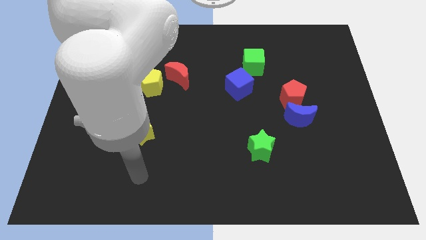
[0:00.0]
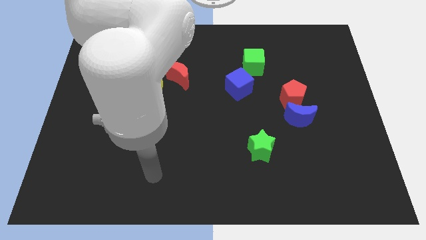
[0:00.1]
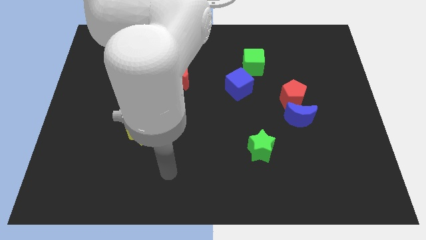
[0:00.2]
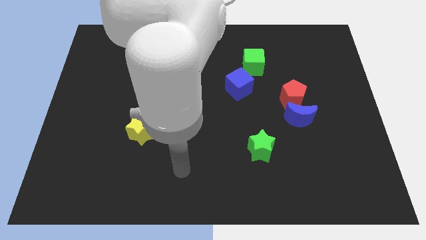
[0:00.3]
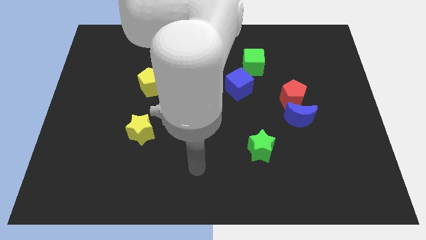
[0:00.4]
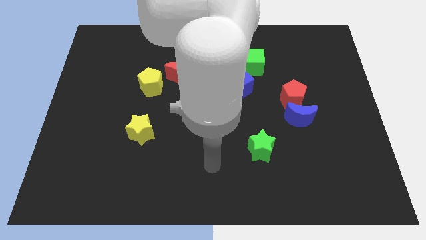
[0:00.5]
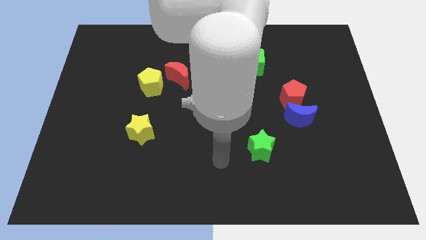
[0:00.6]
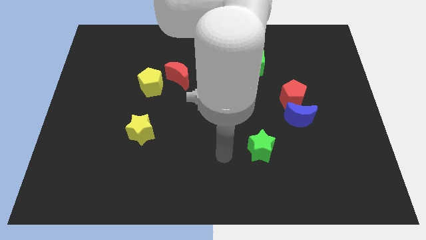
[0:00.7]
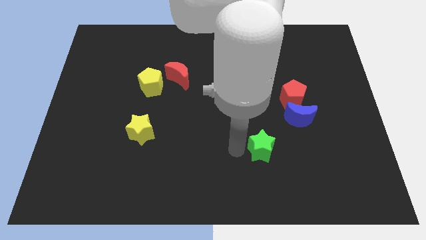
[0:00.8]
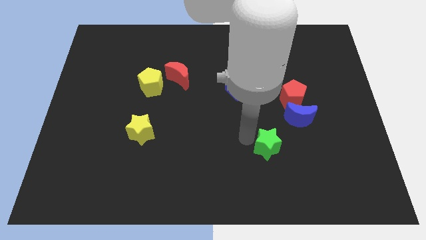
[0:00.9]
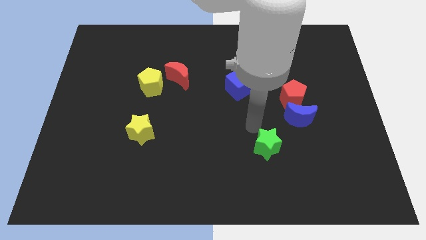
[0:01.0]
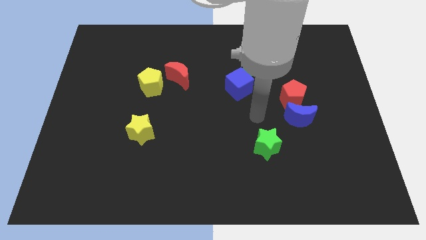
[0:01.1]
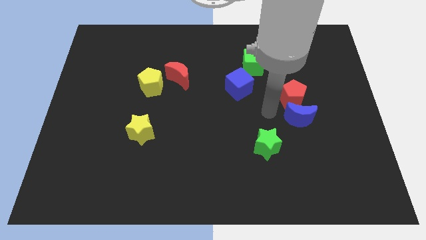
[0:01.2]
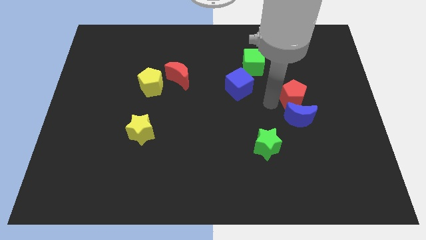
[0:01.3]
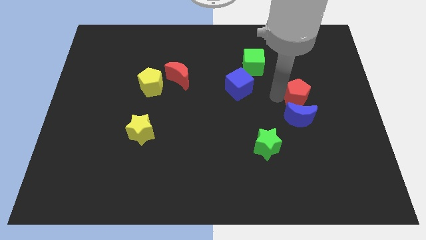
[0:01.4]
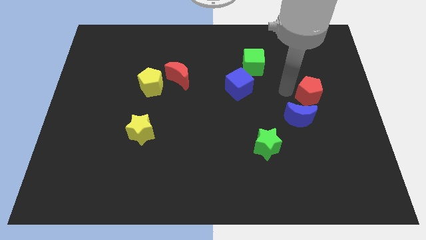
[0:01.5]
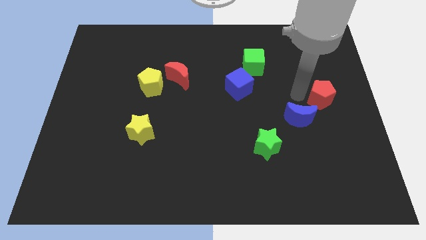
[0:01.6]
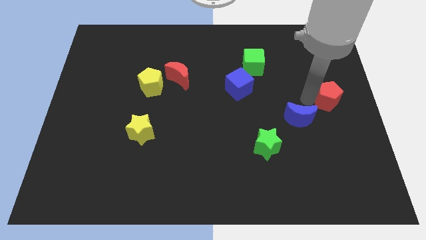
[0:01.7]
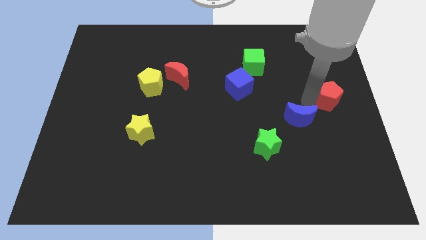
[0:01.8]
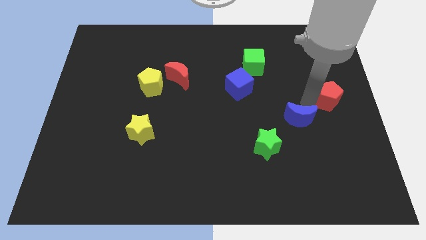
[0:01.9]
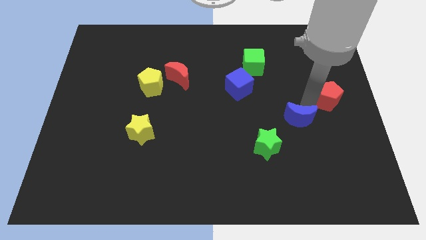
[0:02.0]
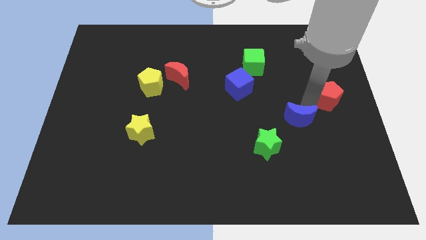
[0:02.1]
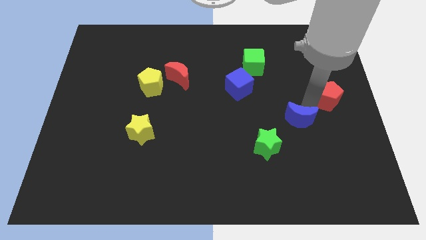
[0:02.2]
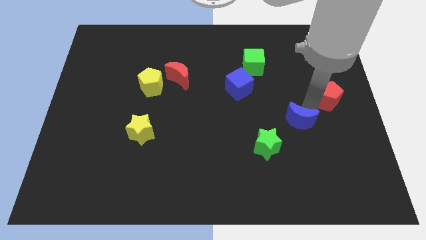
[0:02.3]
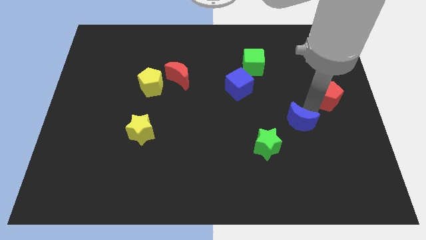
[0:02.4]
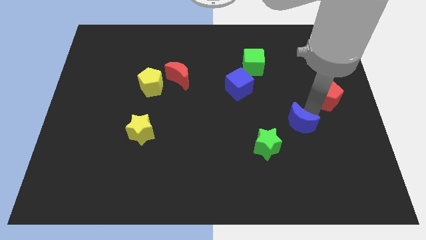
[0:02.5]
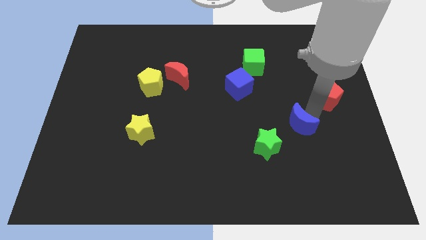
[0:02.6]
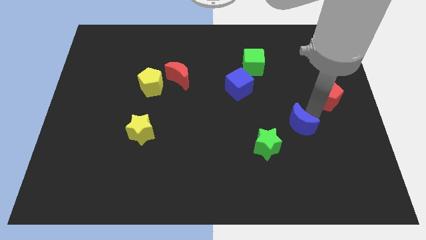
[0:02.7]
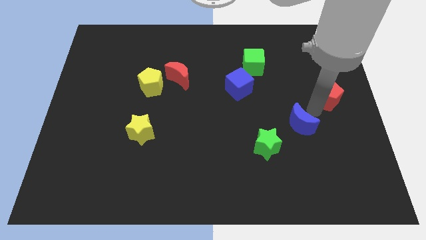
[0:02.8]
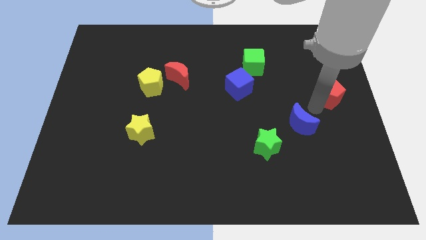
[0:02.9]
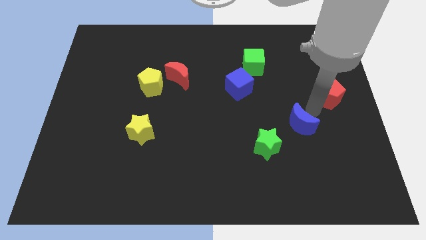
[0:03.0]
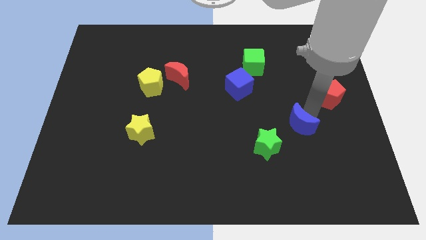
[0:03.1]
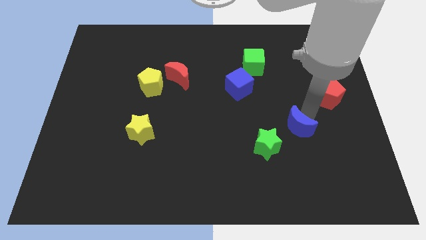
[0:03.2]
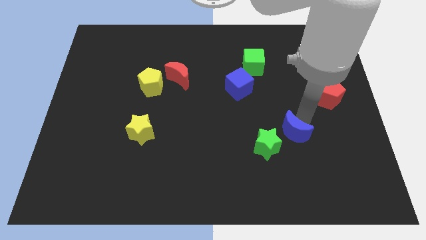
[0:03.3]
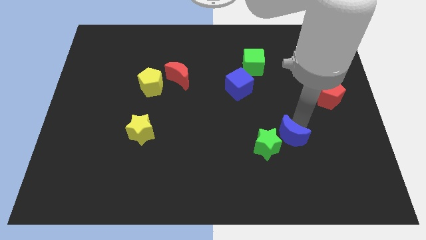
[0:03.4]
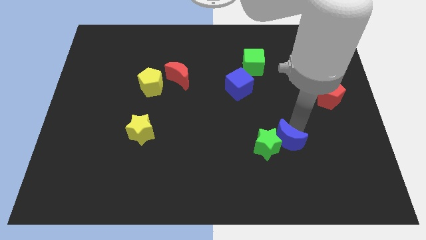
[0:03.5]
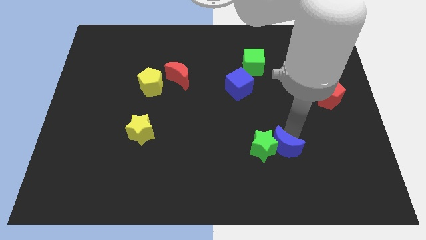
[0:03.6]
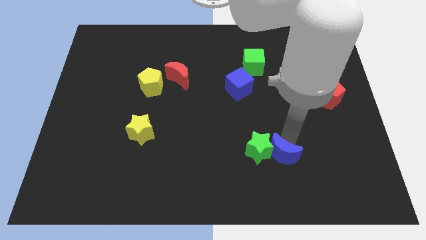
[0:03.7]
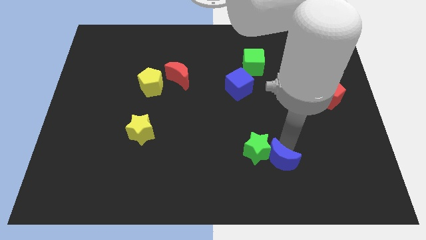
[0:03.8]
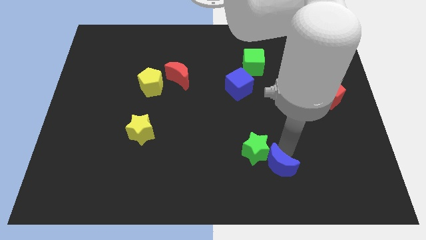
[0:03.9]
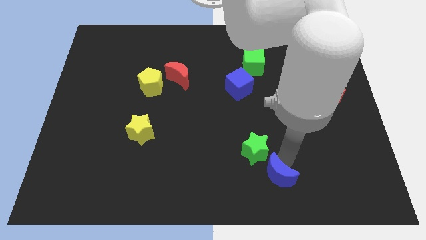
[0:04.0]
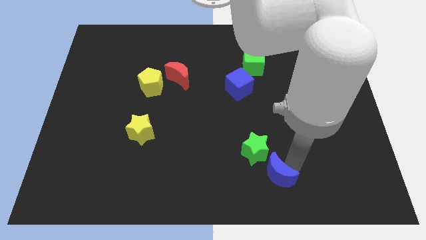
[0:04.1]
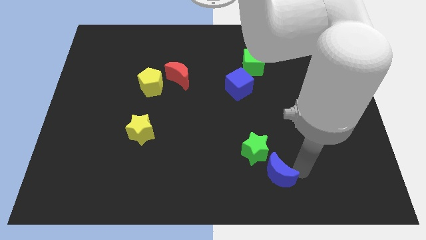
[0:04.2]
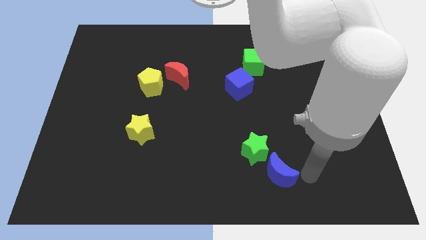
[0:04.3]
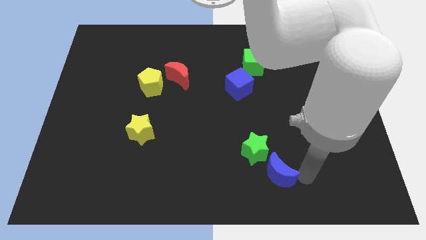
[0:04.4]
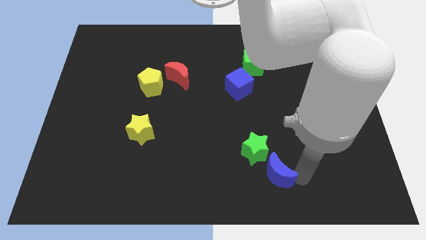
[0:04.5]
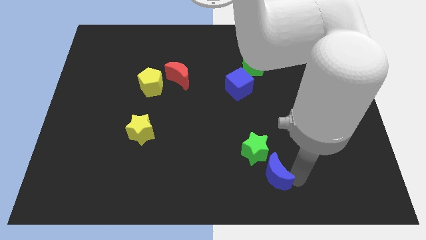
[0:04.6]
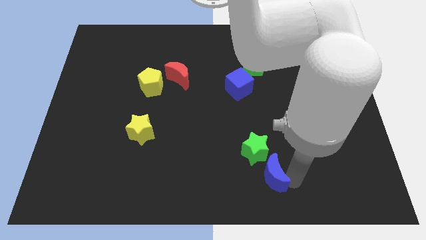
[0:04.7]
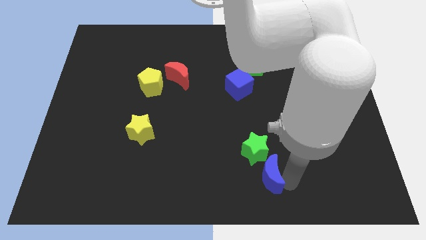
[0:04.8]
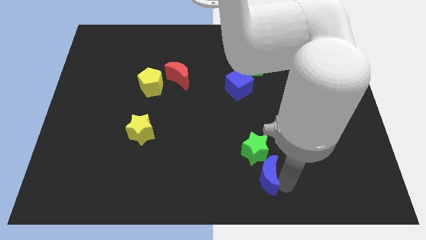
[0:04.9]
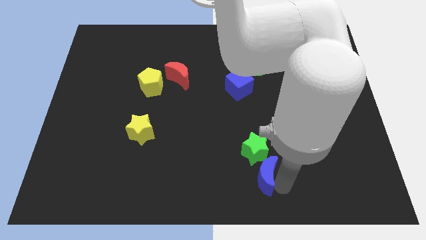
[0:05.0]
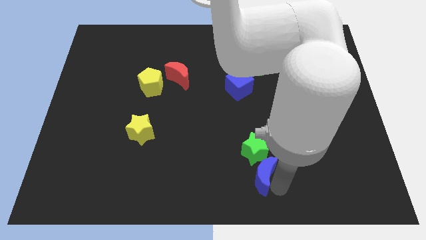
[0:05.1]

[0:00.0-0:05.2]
slide the blue moon to the bottom left side of the green star

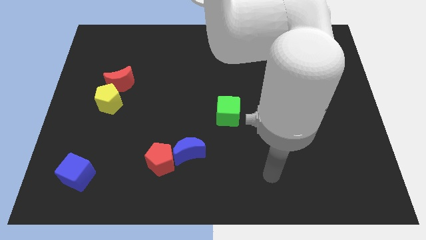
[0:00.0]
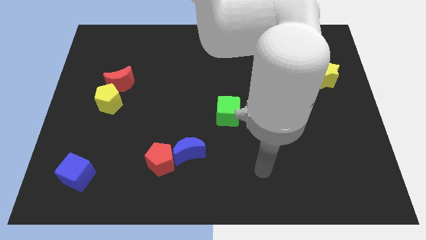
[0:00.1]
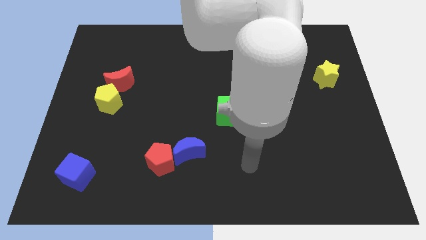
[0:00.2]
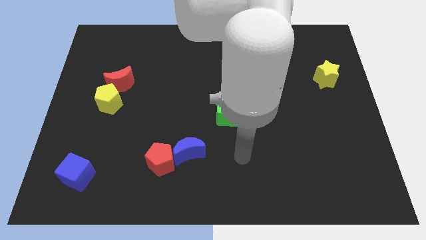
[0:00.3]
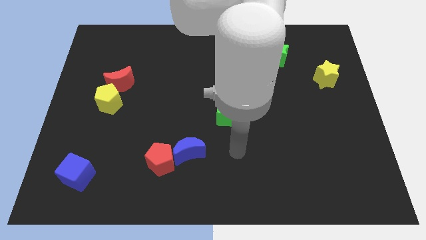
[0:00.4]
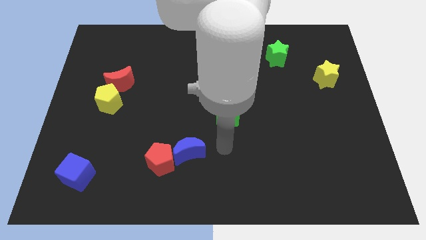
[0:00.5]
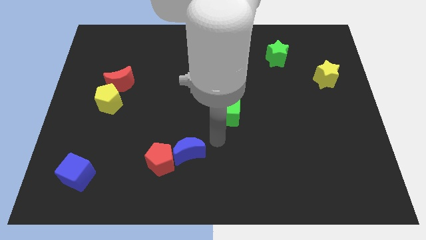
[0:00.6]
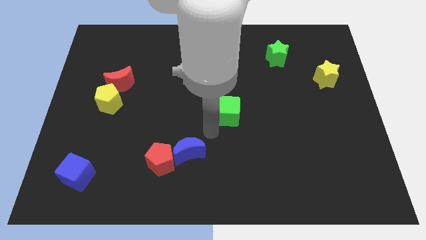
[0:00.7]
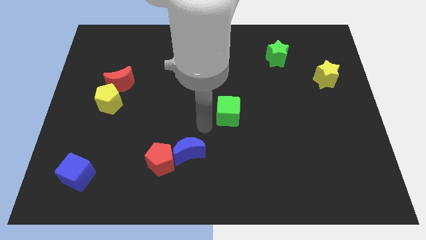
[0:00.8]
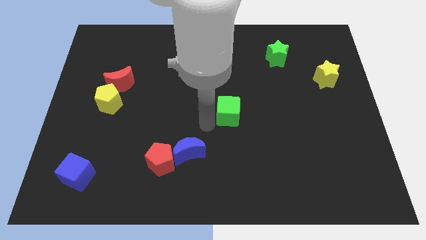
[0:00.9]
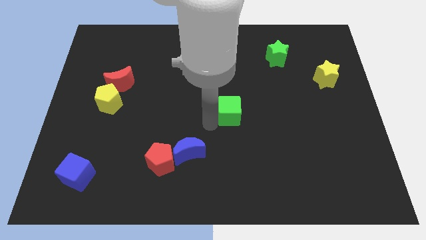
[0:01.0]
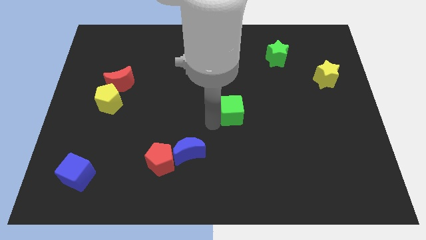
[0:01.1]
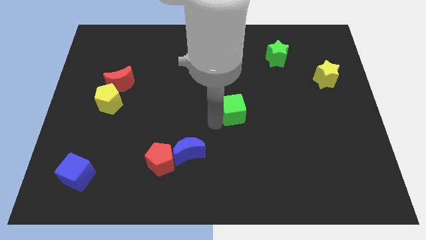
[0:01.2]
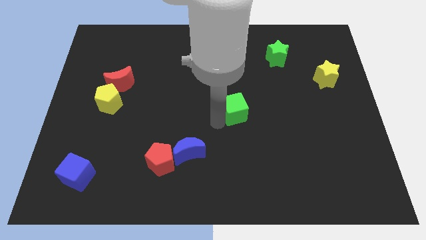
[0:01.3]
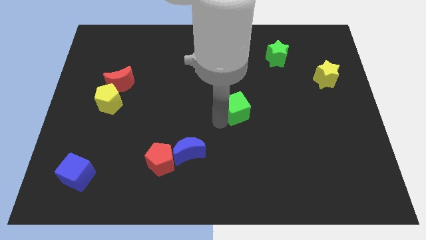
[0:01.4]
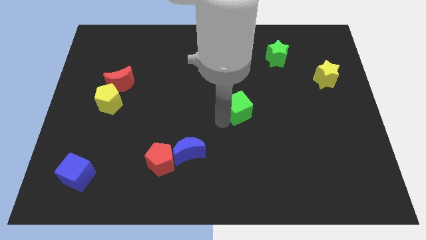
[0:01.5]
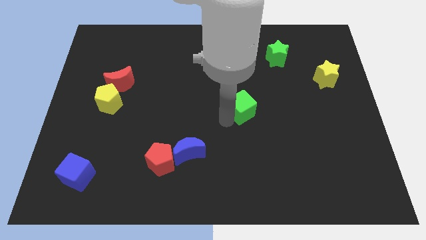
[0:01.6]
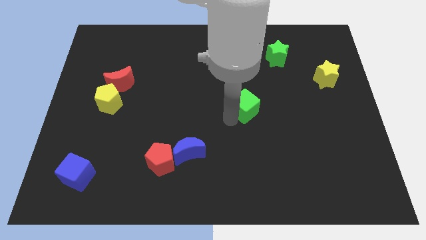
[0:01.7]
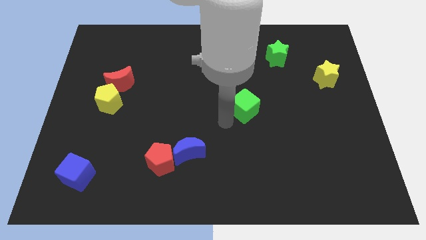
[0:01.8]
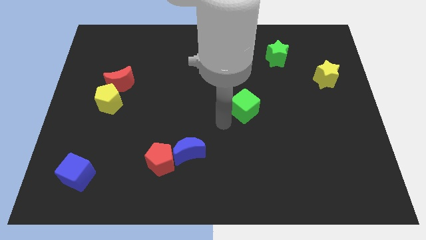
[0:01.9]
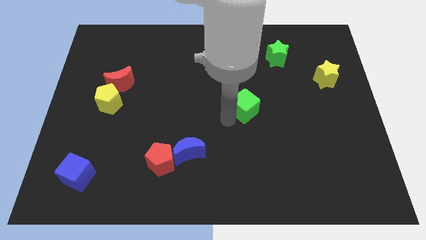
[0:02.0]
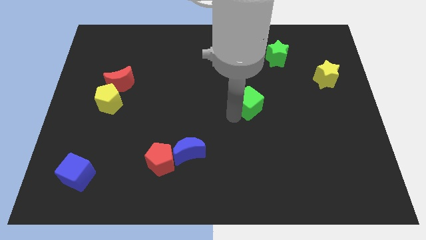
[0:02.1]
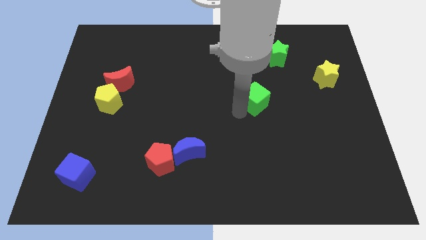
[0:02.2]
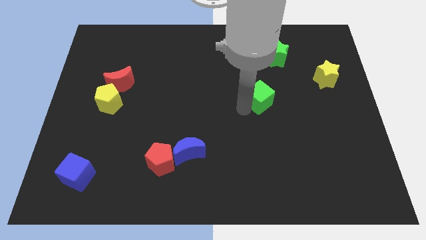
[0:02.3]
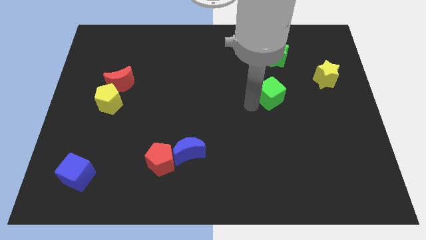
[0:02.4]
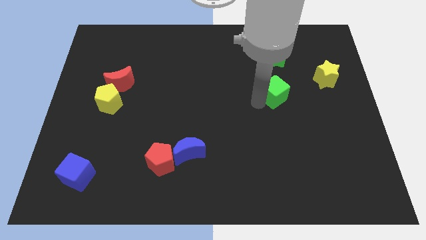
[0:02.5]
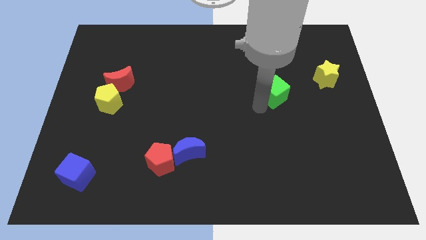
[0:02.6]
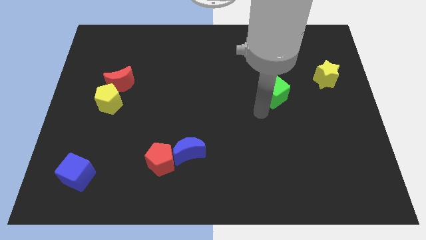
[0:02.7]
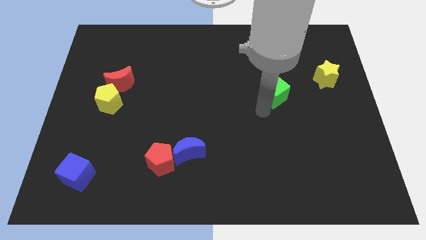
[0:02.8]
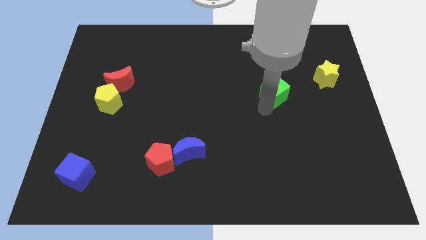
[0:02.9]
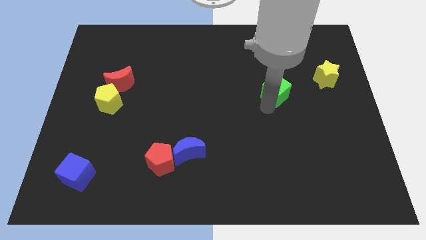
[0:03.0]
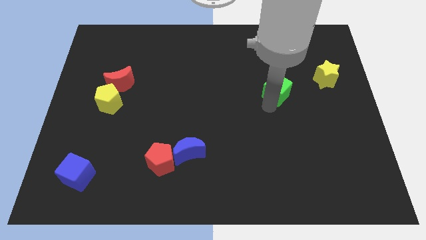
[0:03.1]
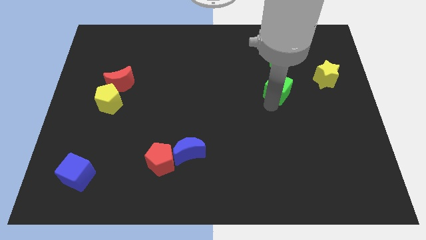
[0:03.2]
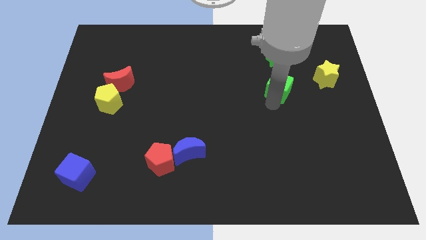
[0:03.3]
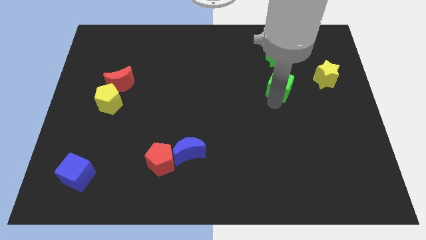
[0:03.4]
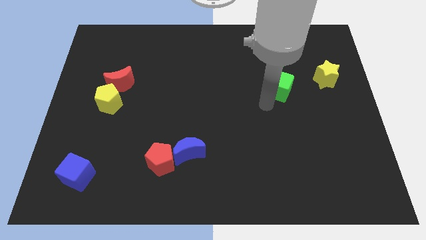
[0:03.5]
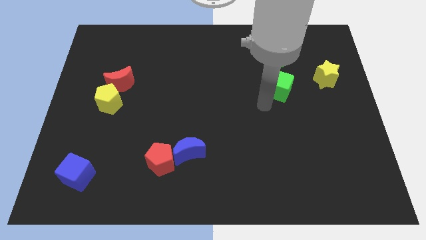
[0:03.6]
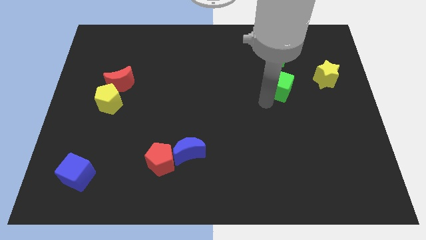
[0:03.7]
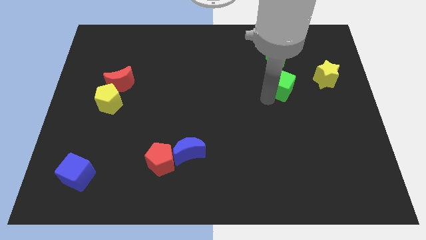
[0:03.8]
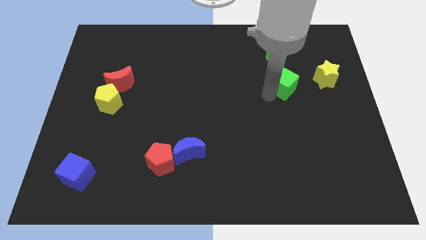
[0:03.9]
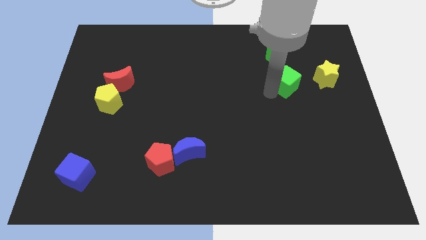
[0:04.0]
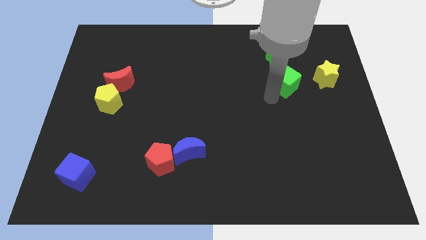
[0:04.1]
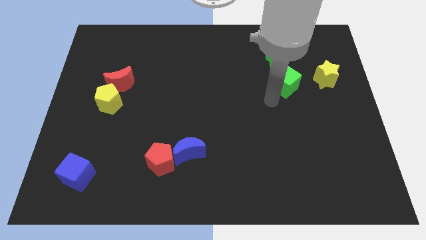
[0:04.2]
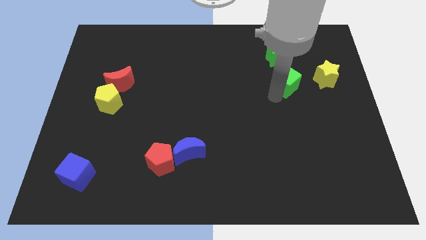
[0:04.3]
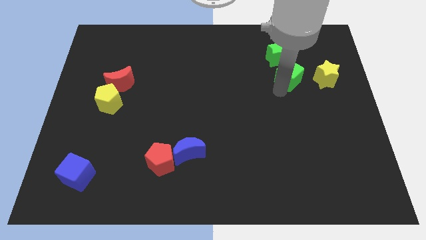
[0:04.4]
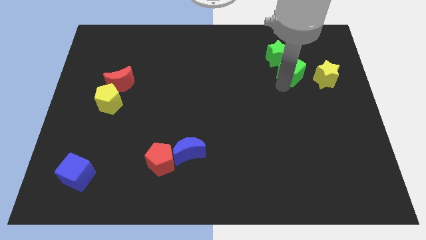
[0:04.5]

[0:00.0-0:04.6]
move the green cube to the top left side of the yellow star
